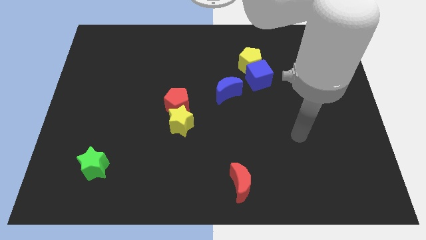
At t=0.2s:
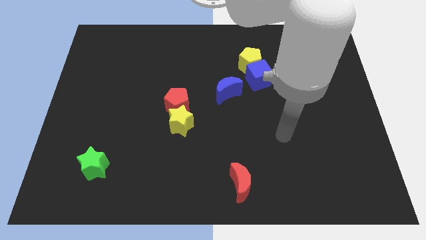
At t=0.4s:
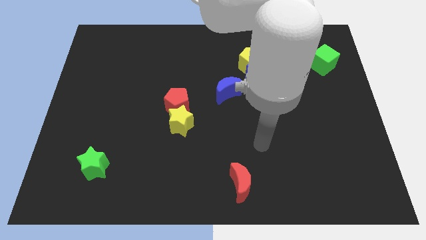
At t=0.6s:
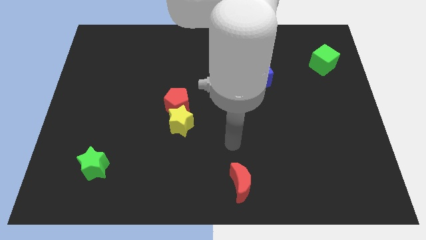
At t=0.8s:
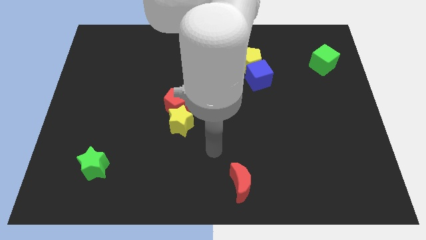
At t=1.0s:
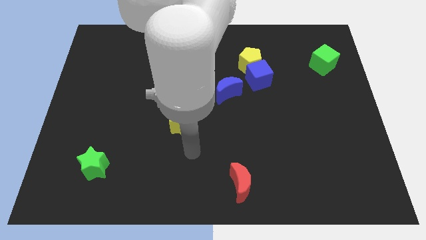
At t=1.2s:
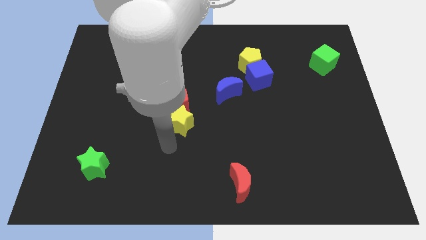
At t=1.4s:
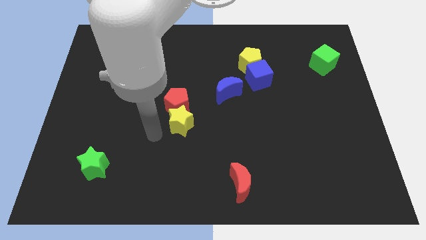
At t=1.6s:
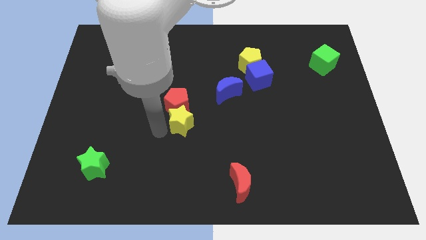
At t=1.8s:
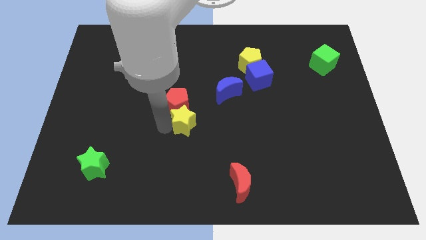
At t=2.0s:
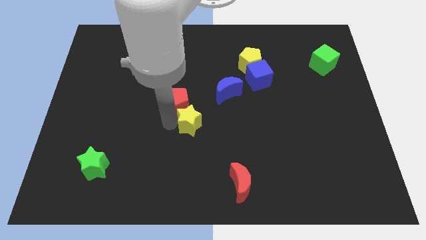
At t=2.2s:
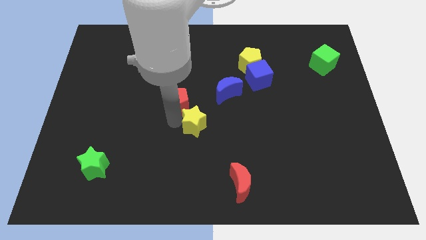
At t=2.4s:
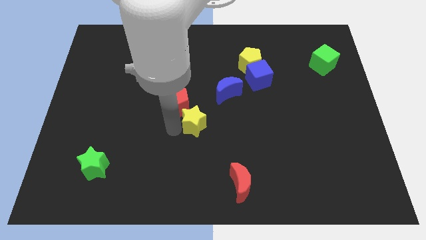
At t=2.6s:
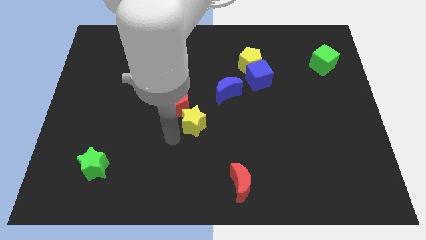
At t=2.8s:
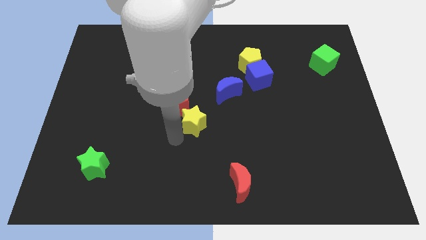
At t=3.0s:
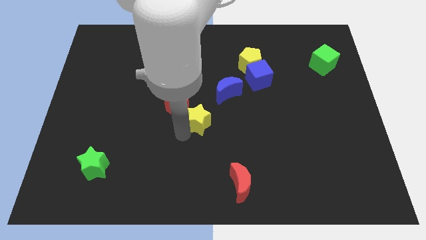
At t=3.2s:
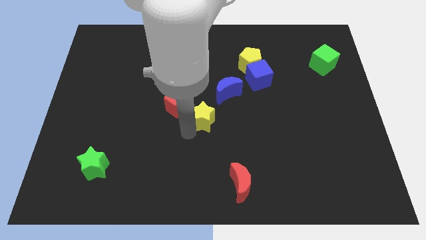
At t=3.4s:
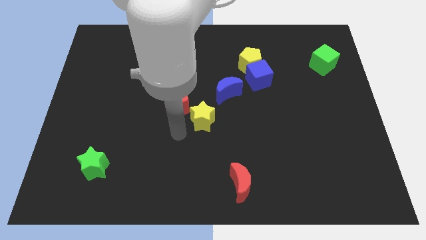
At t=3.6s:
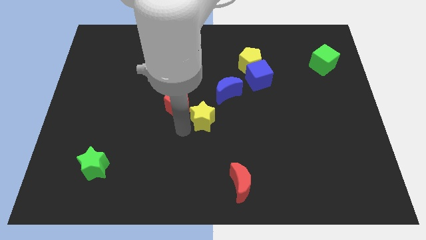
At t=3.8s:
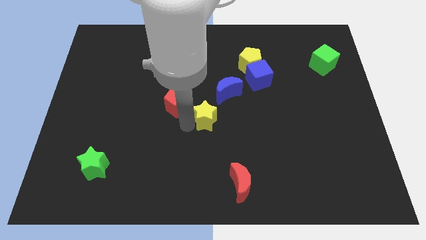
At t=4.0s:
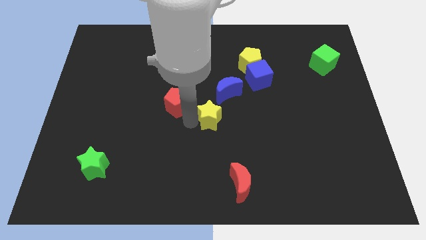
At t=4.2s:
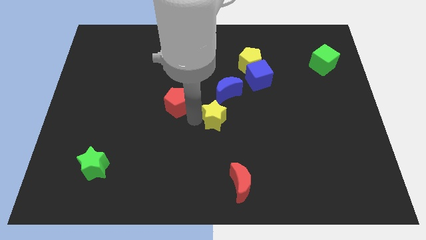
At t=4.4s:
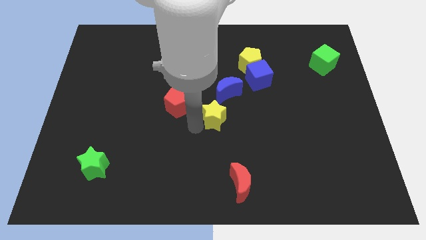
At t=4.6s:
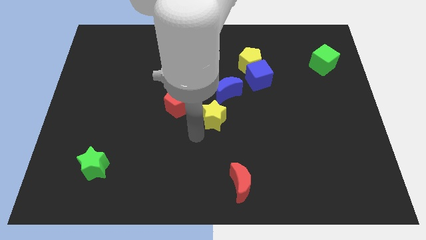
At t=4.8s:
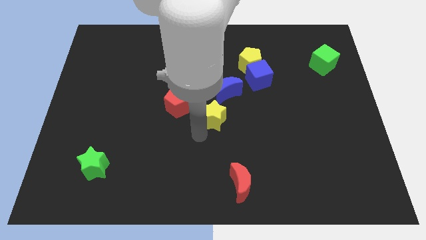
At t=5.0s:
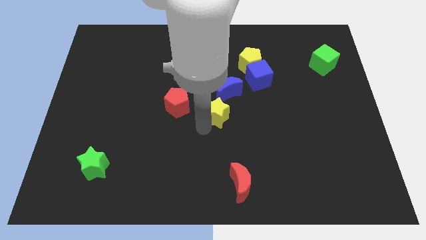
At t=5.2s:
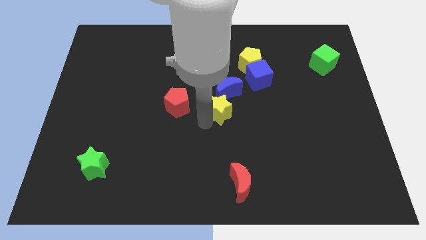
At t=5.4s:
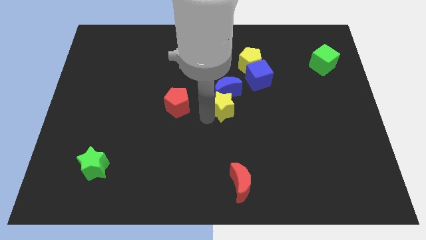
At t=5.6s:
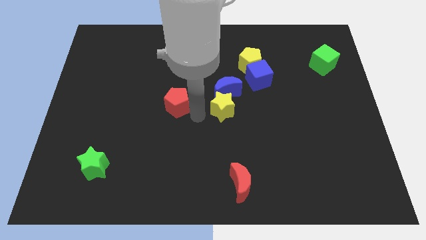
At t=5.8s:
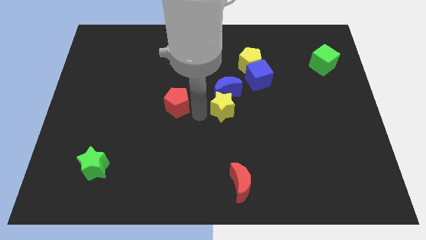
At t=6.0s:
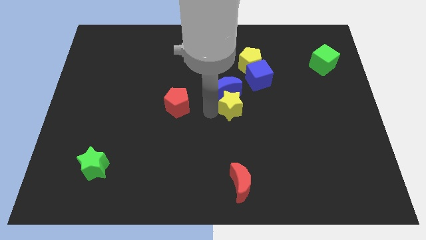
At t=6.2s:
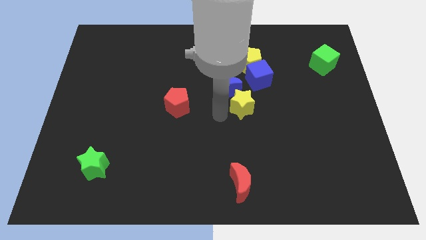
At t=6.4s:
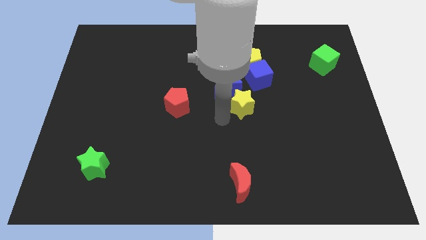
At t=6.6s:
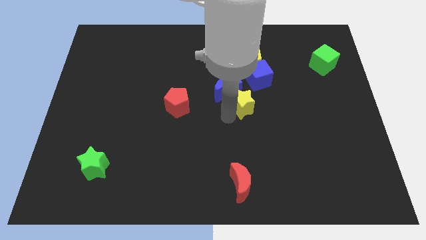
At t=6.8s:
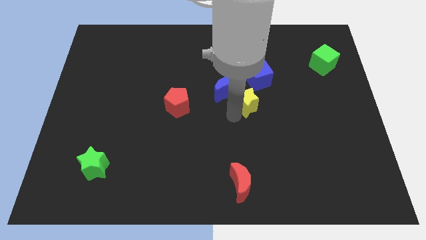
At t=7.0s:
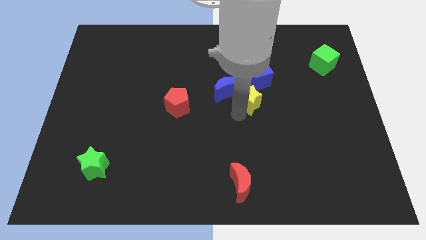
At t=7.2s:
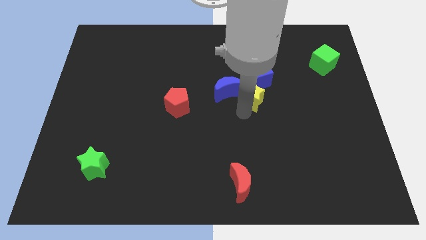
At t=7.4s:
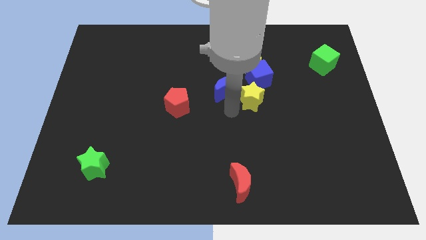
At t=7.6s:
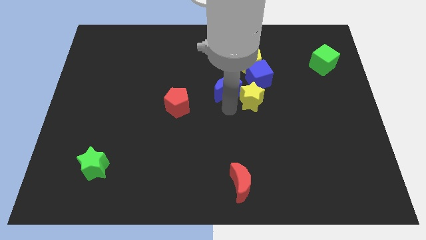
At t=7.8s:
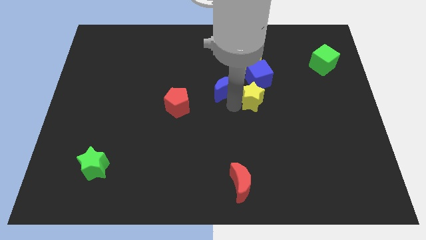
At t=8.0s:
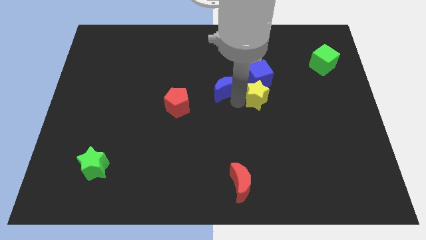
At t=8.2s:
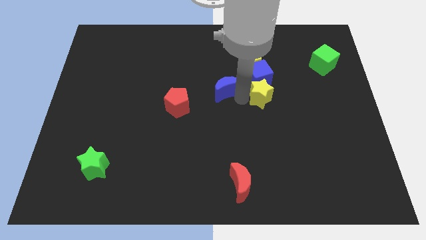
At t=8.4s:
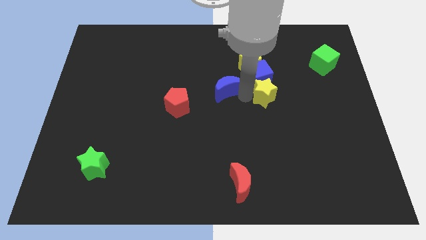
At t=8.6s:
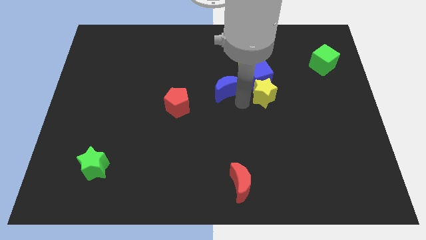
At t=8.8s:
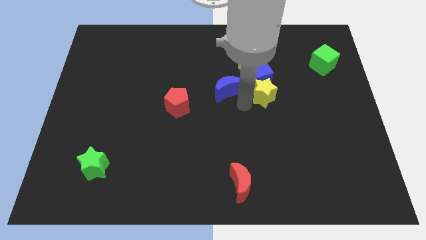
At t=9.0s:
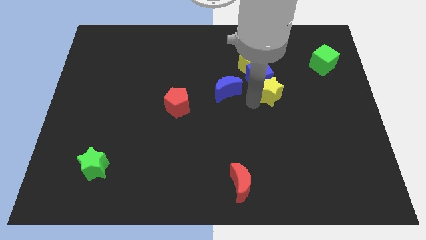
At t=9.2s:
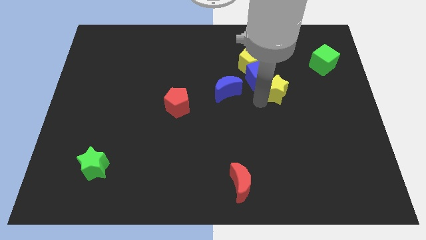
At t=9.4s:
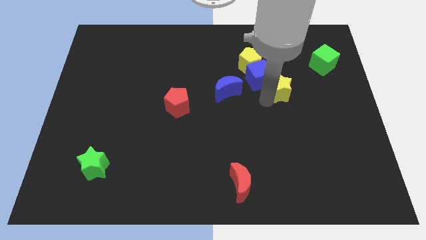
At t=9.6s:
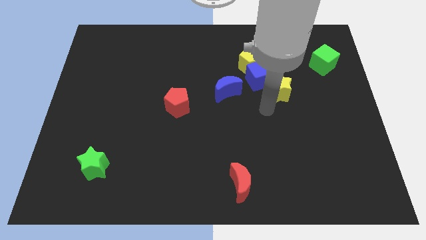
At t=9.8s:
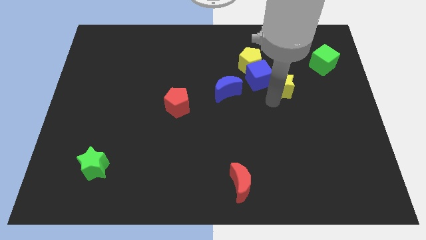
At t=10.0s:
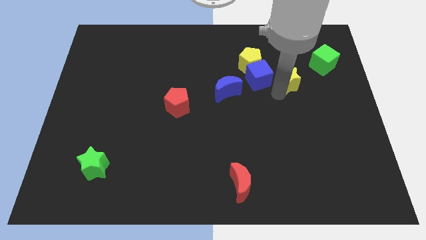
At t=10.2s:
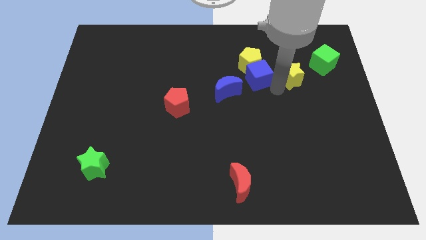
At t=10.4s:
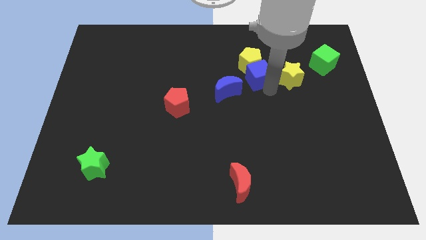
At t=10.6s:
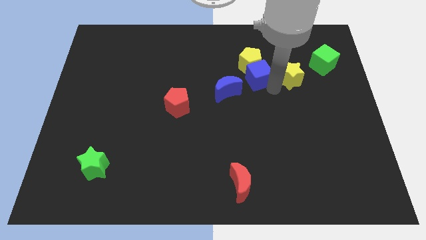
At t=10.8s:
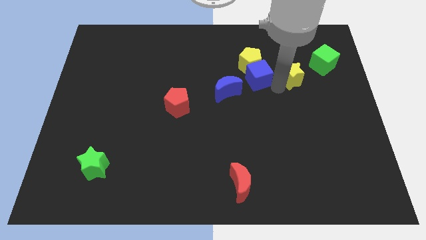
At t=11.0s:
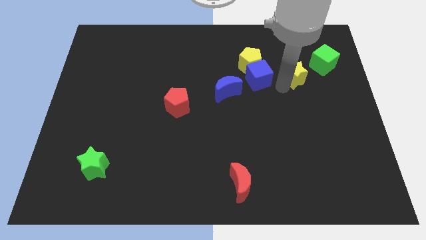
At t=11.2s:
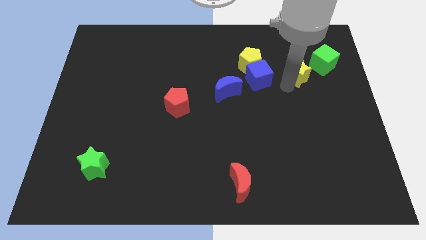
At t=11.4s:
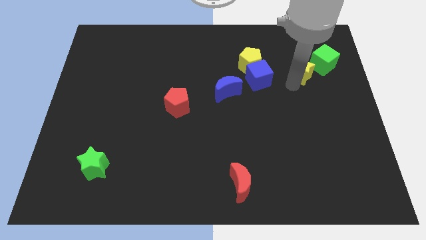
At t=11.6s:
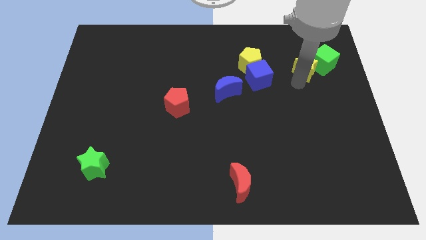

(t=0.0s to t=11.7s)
move the yellow star to the green cube

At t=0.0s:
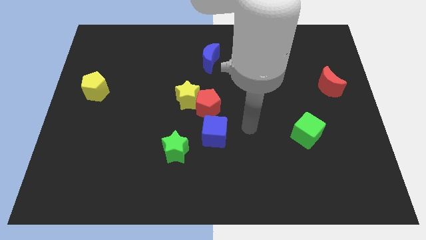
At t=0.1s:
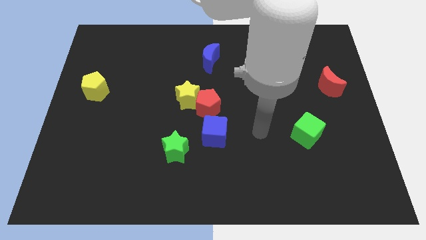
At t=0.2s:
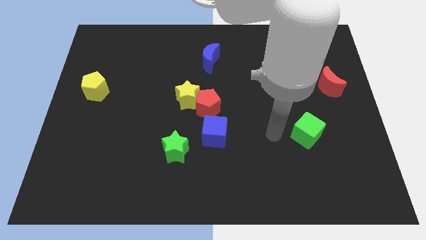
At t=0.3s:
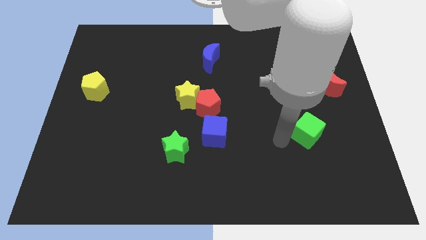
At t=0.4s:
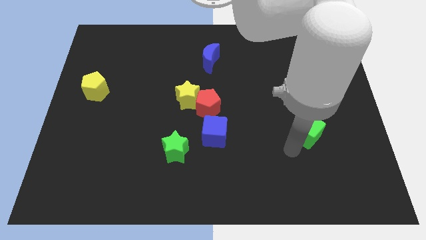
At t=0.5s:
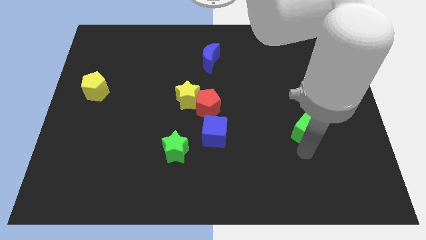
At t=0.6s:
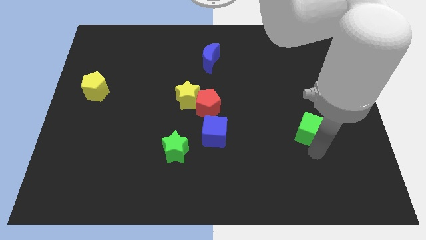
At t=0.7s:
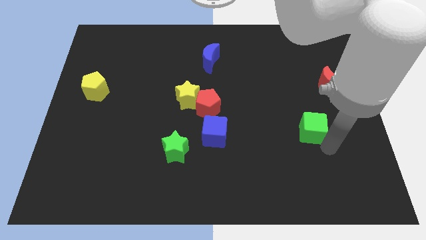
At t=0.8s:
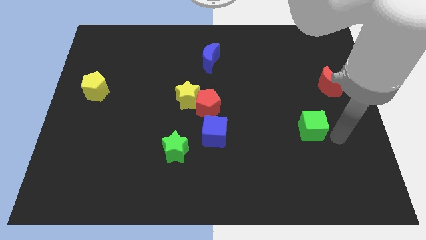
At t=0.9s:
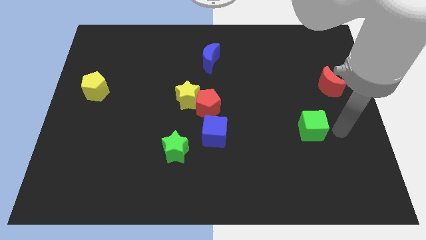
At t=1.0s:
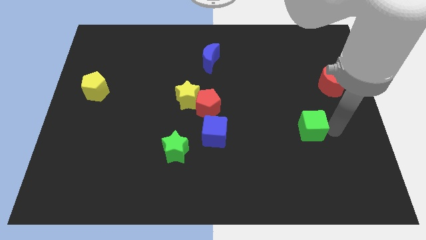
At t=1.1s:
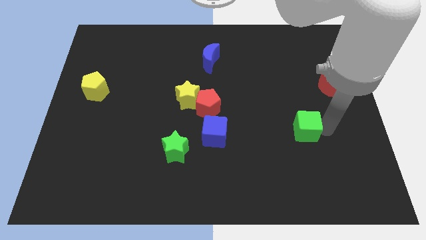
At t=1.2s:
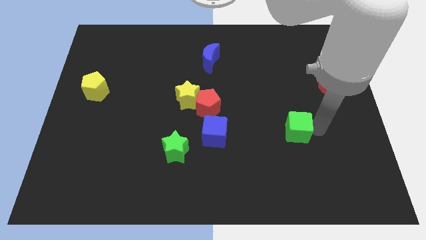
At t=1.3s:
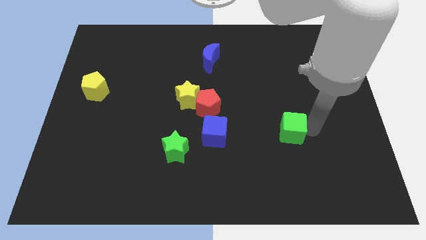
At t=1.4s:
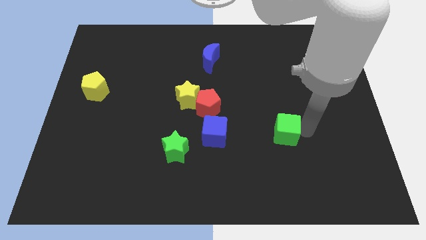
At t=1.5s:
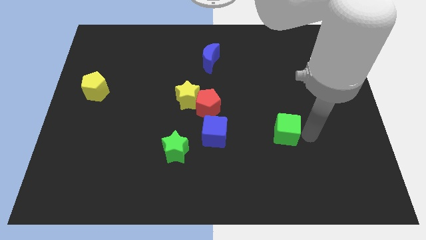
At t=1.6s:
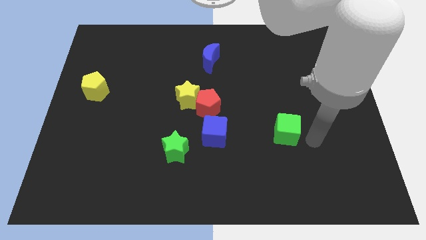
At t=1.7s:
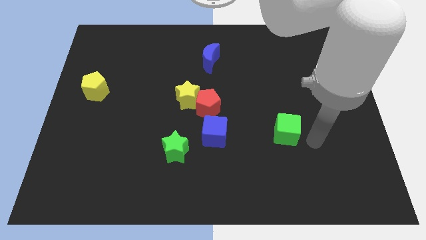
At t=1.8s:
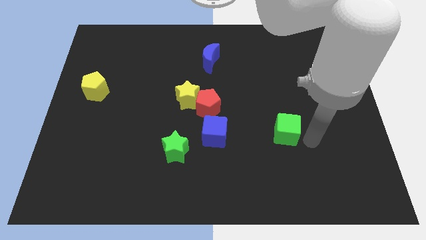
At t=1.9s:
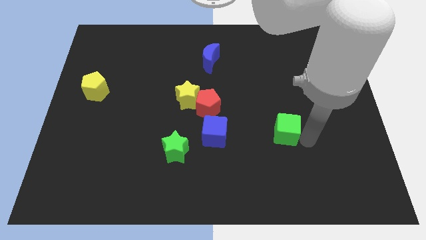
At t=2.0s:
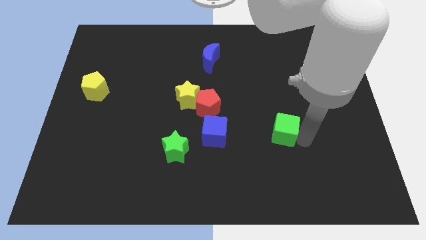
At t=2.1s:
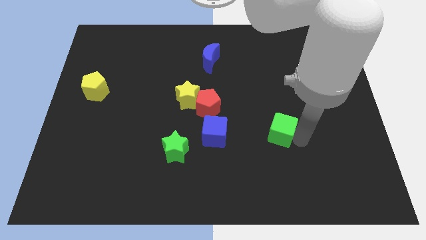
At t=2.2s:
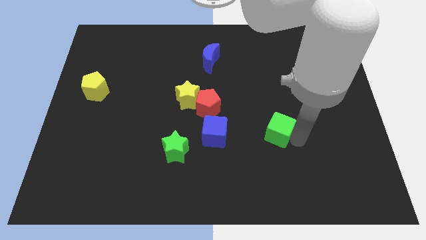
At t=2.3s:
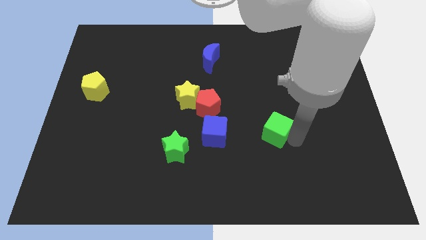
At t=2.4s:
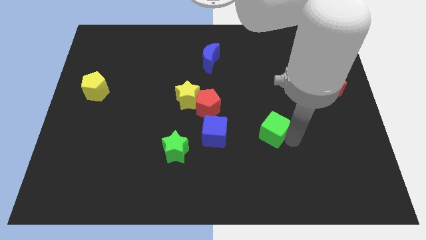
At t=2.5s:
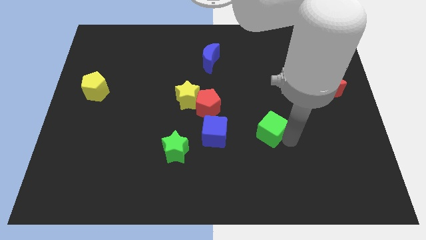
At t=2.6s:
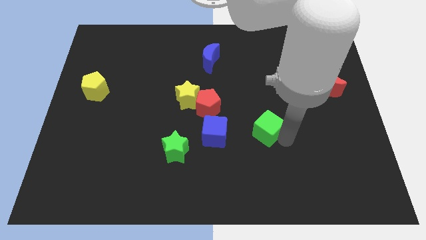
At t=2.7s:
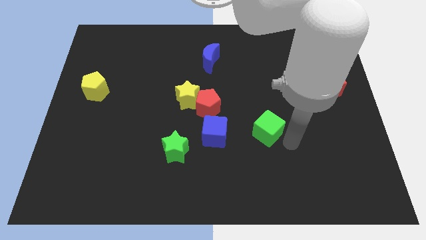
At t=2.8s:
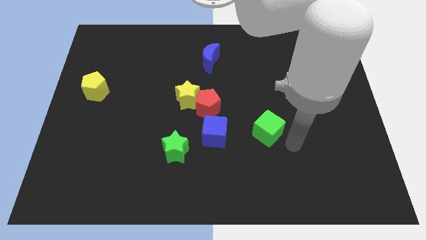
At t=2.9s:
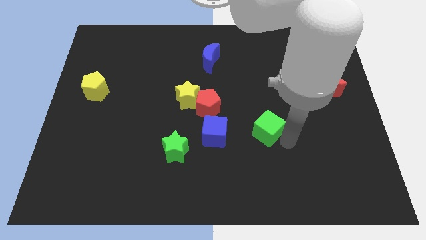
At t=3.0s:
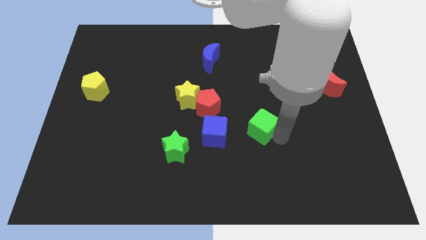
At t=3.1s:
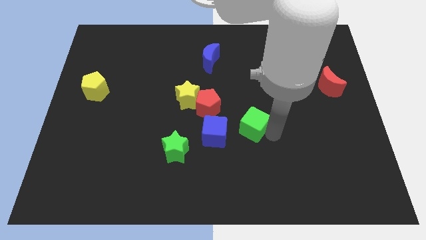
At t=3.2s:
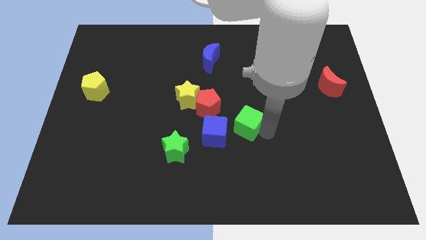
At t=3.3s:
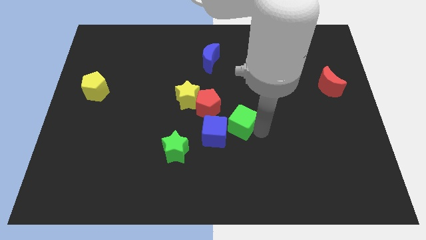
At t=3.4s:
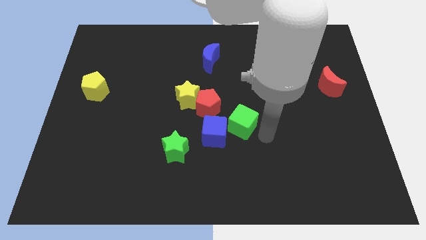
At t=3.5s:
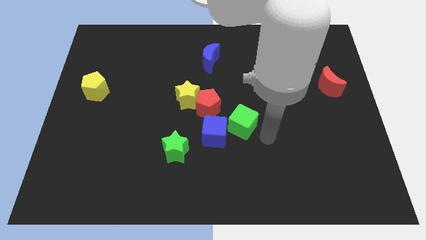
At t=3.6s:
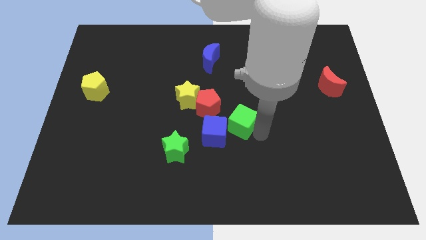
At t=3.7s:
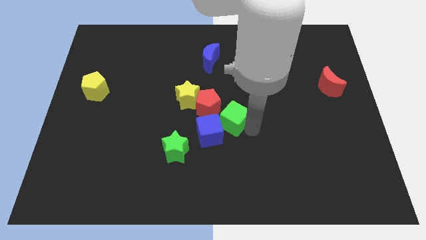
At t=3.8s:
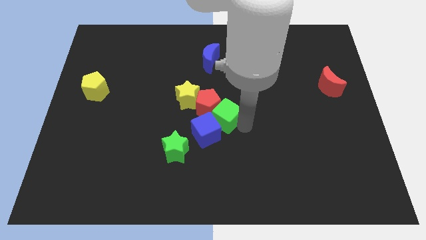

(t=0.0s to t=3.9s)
slide the green cube to the red pentagon
